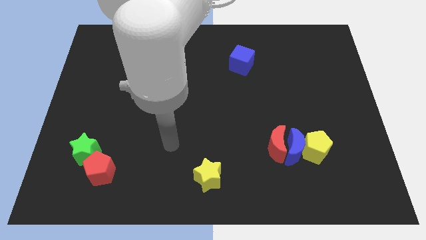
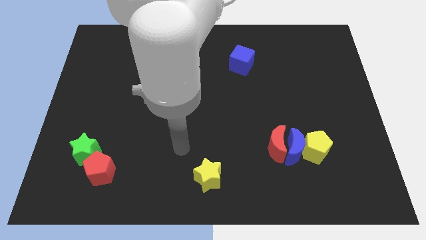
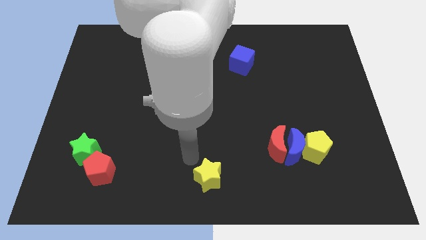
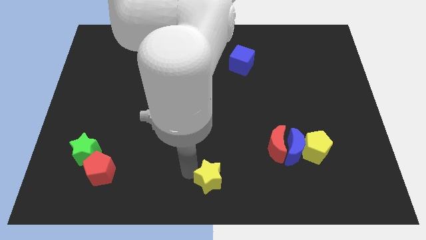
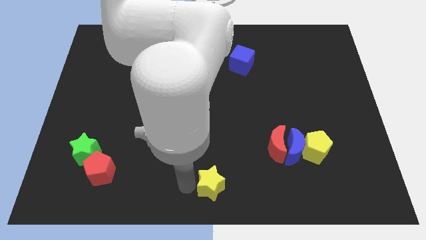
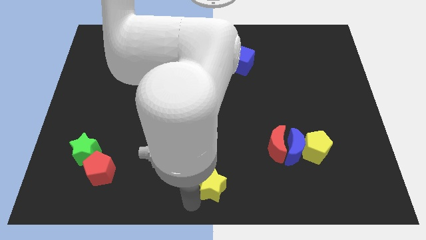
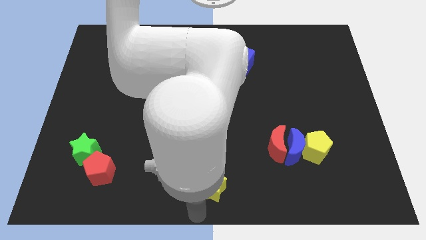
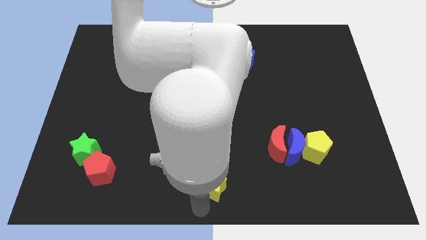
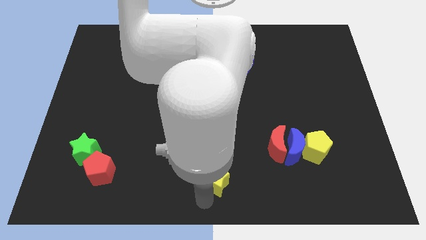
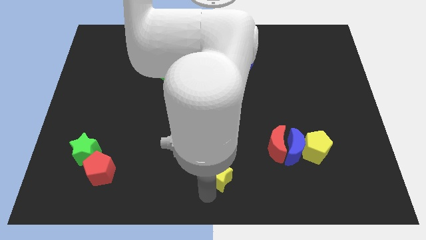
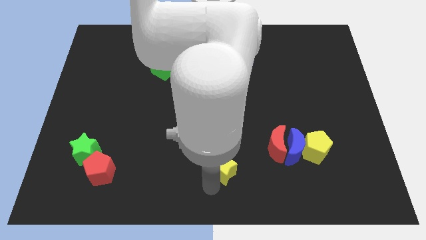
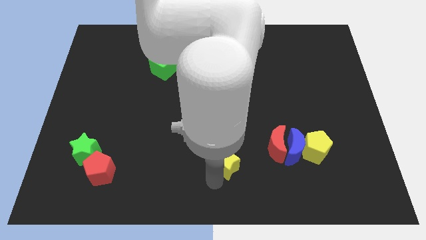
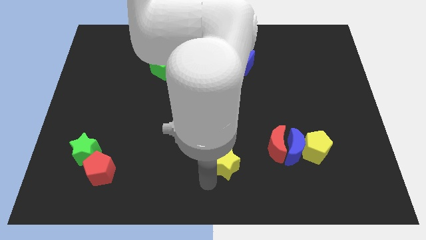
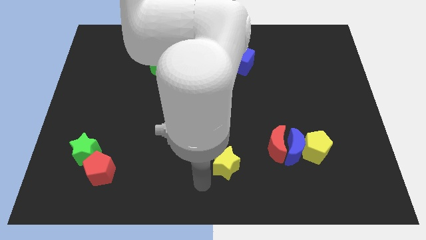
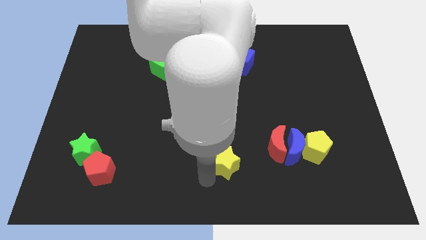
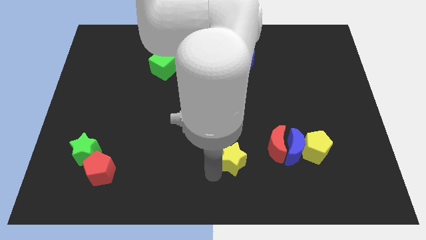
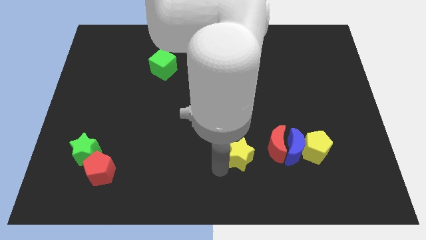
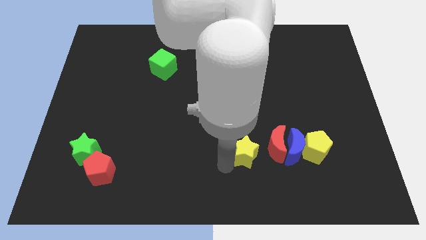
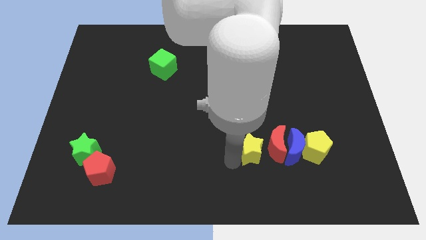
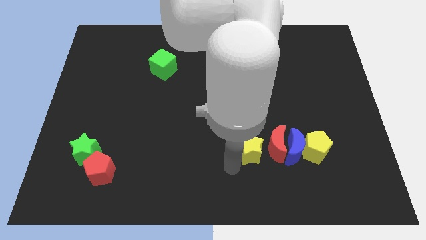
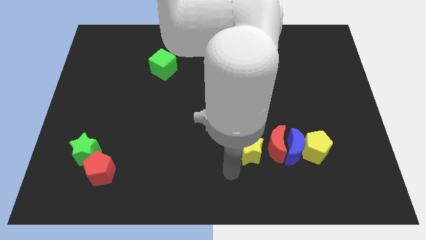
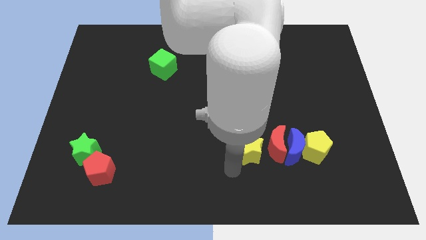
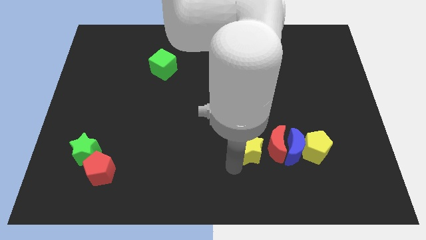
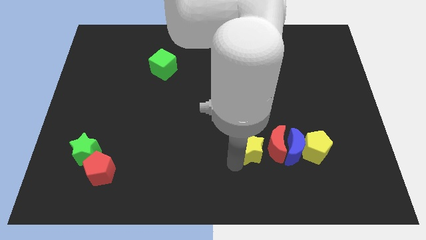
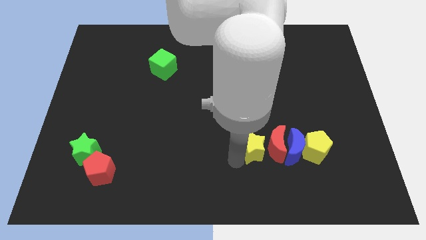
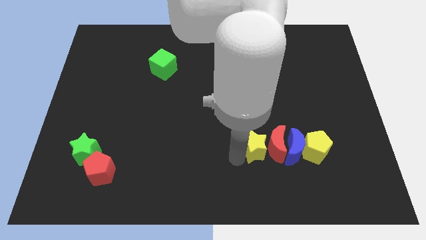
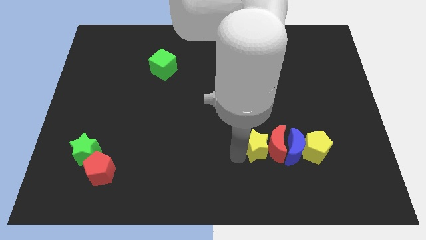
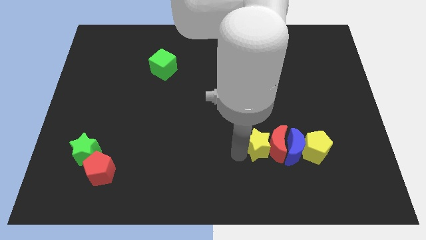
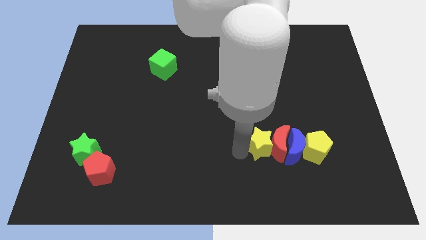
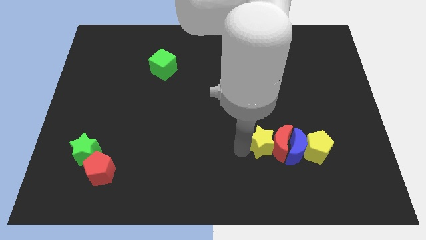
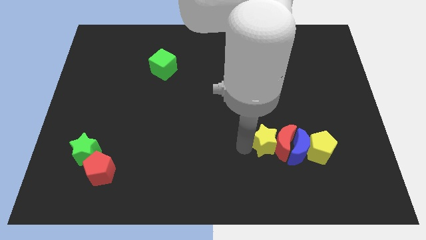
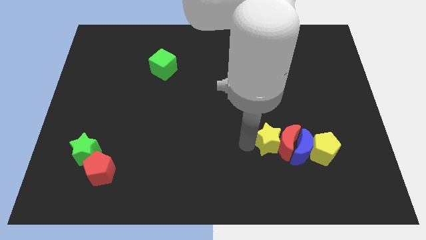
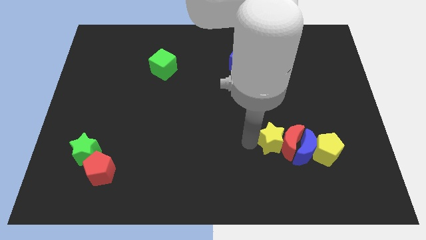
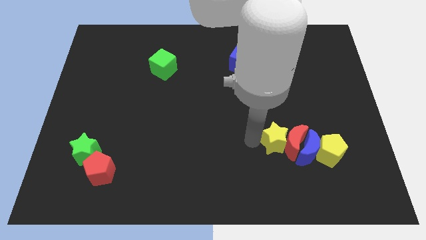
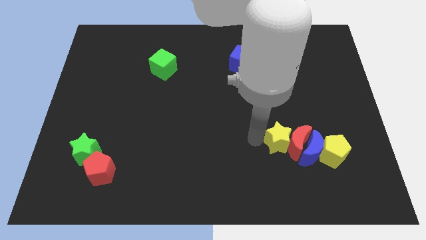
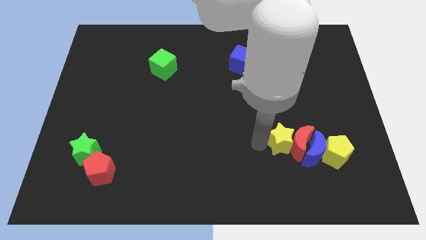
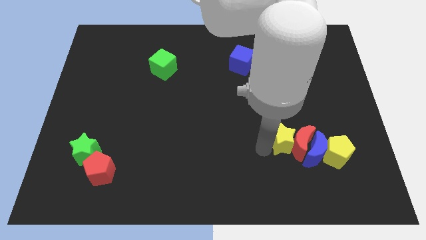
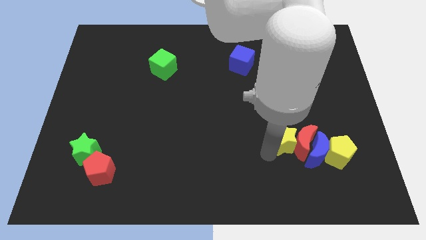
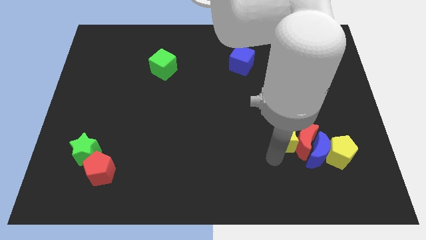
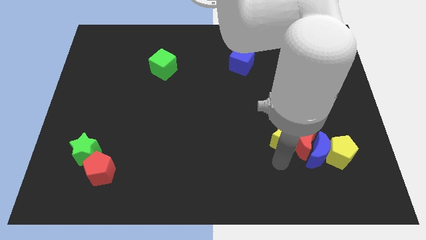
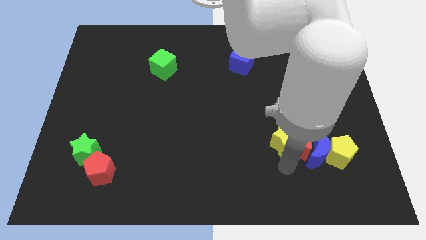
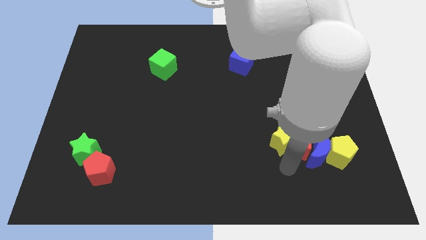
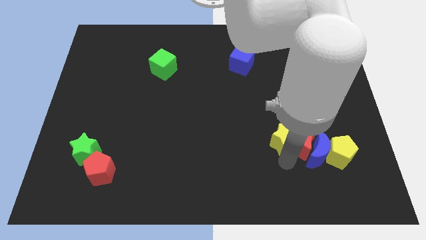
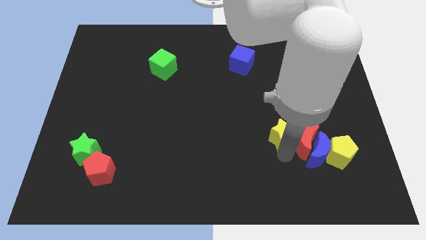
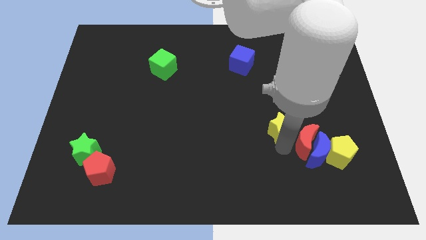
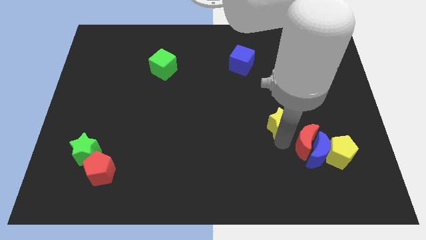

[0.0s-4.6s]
move the yellow star diagonally upwards and right

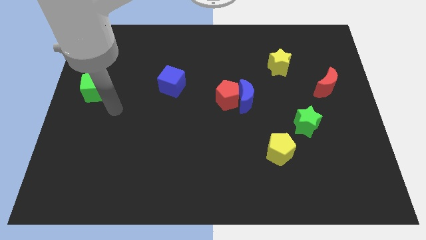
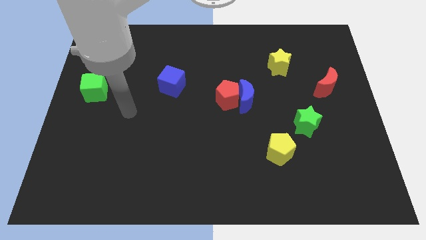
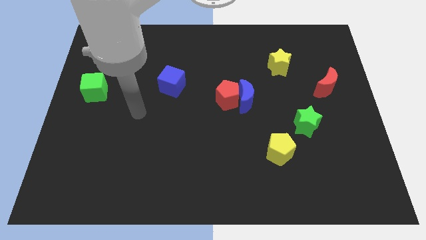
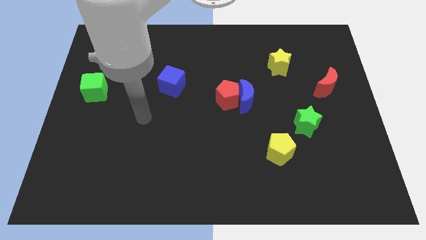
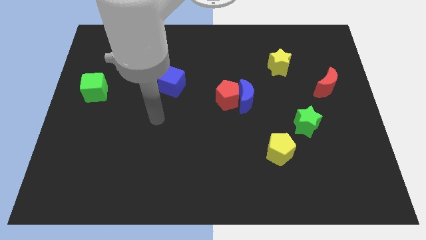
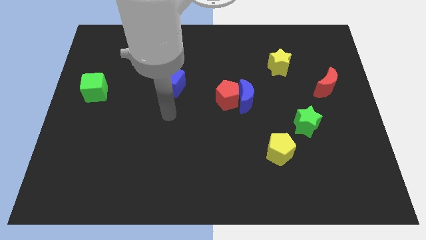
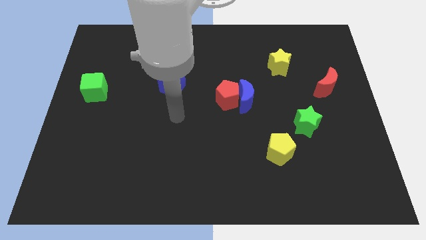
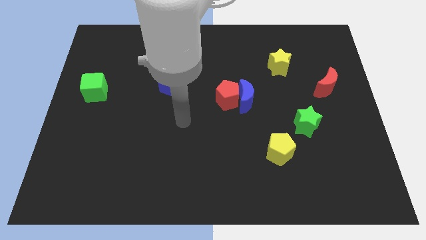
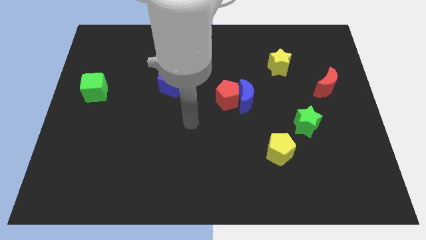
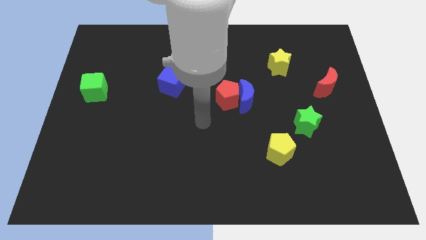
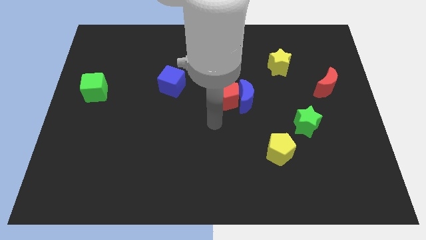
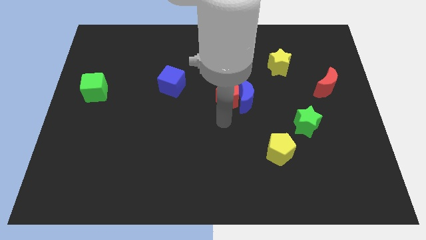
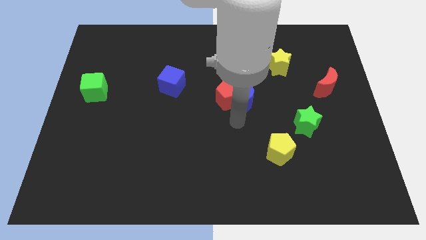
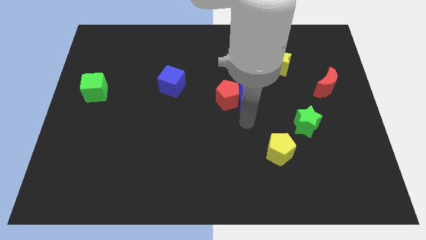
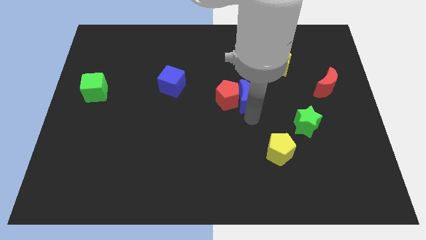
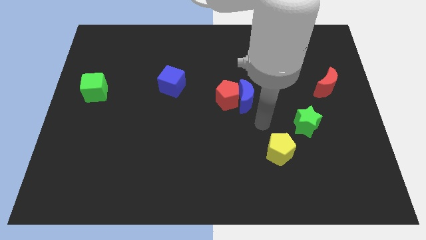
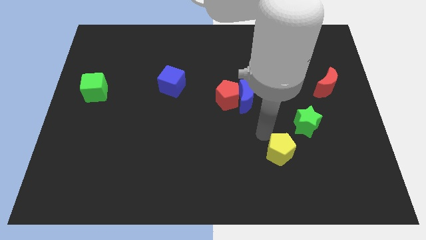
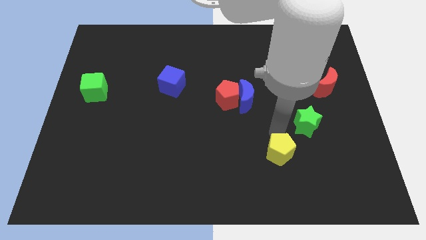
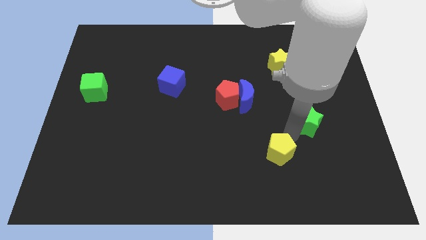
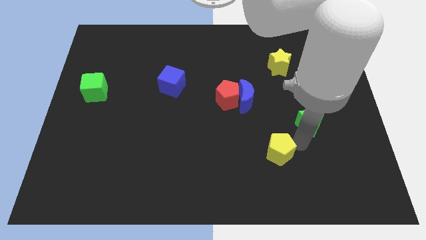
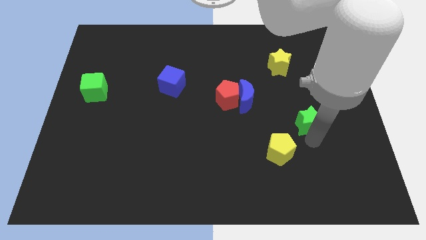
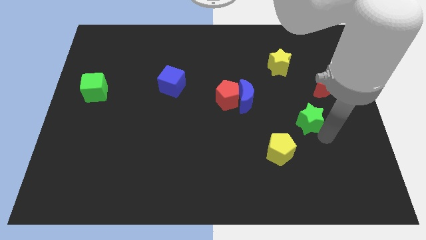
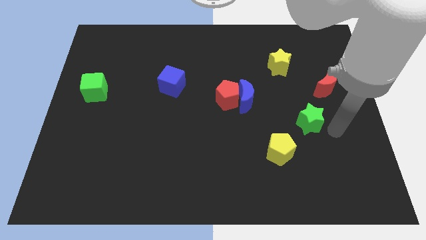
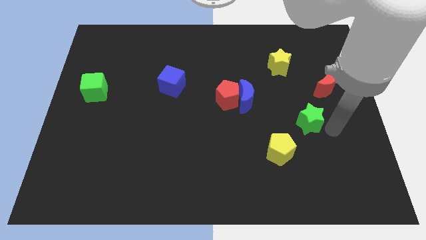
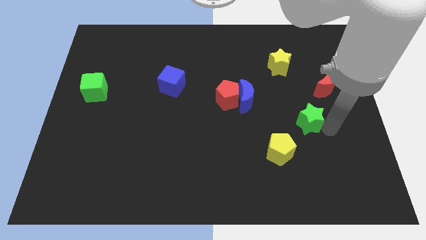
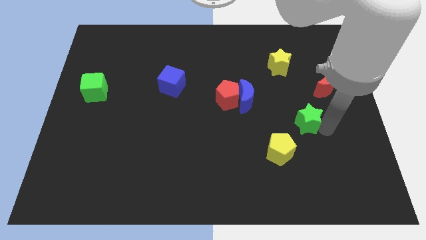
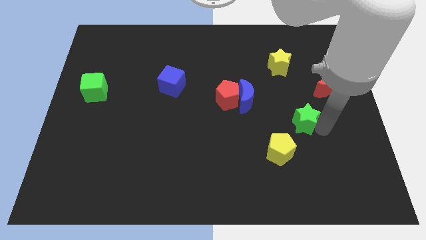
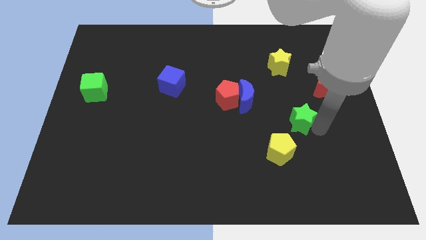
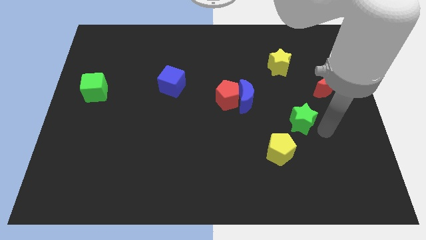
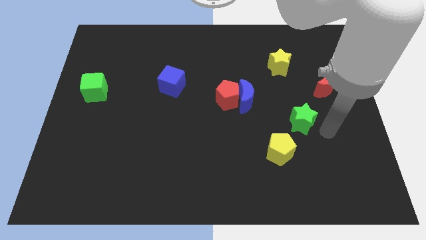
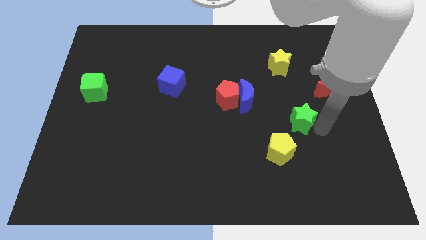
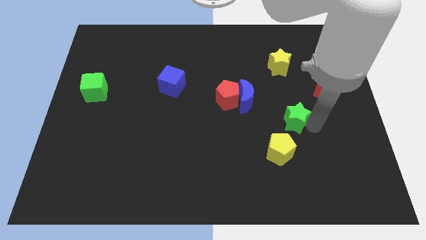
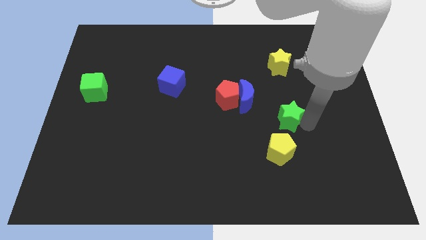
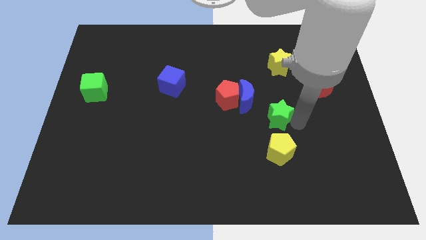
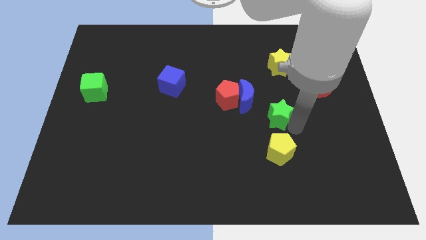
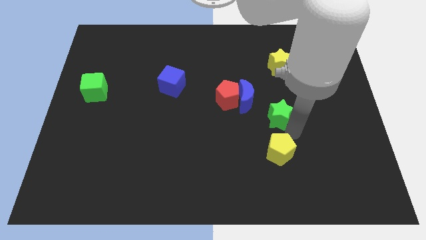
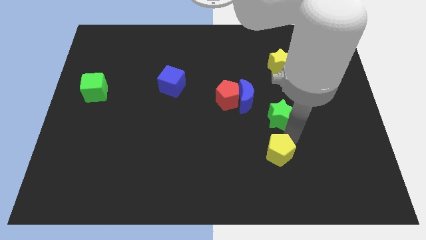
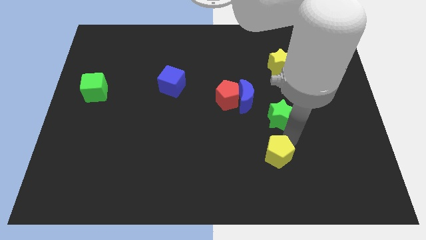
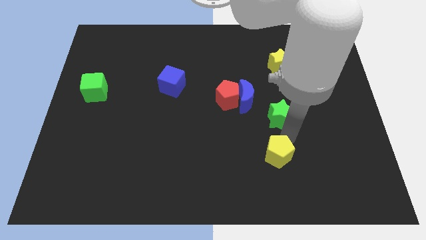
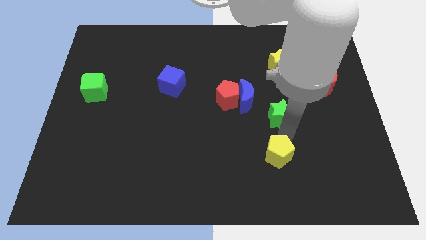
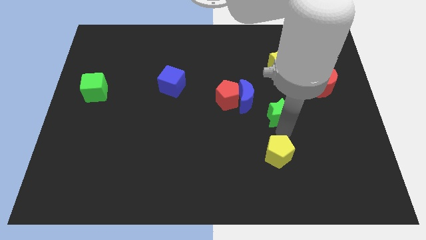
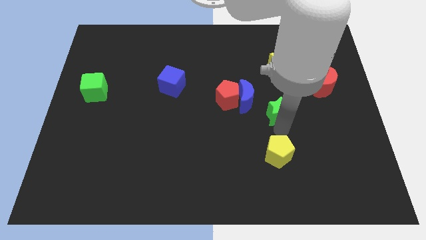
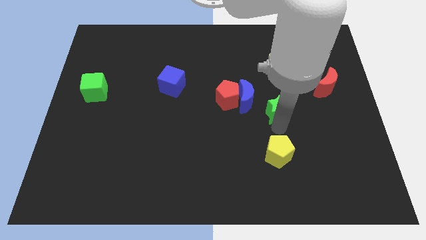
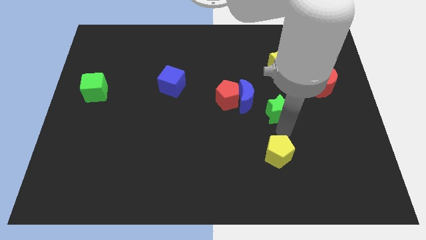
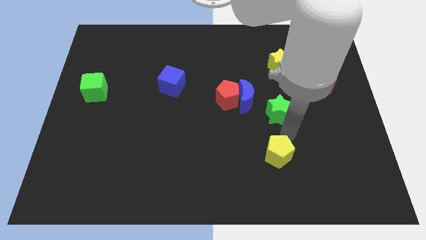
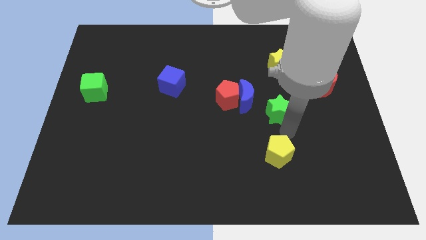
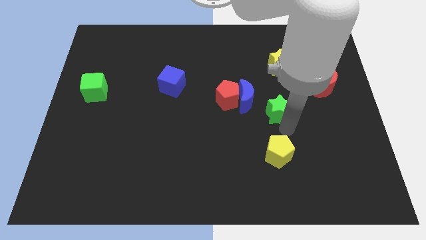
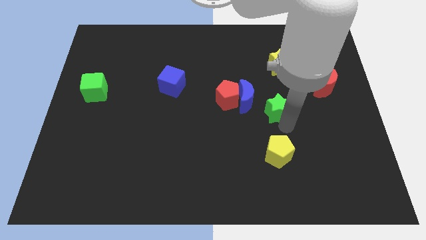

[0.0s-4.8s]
slide the green star a little bit up and to the left
